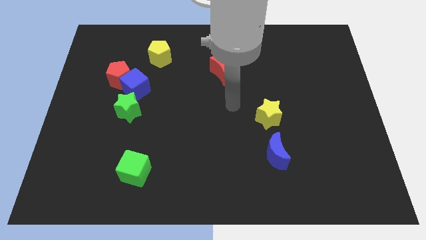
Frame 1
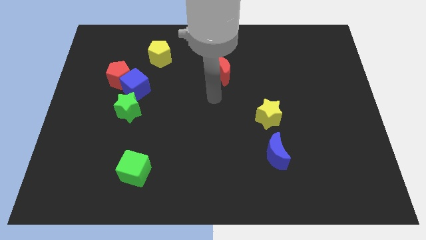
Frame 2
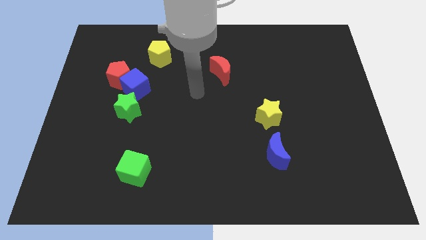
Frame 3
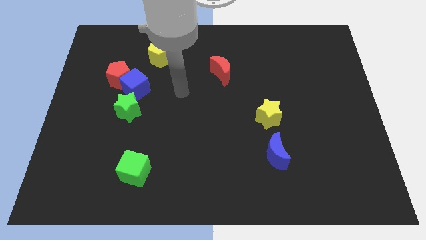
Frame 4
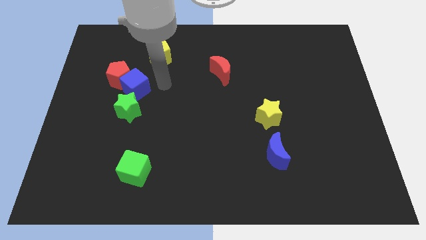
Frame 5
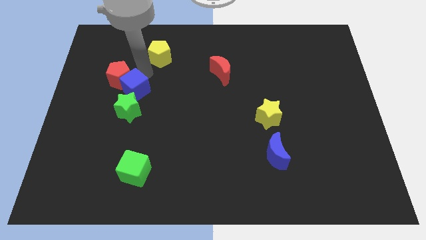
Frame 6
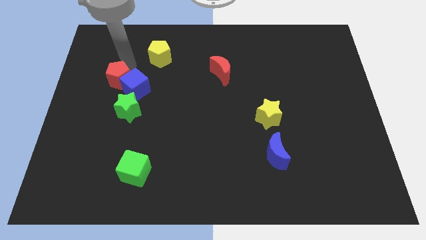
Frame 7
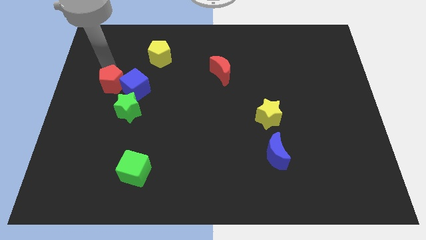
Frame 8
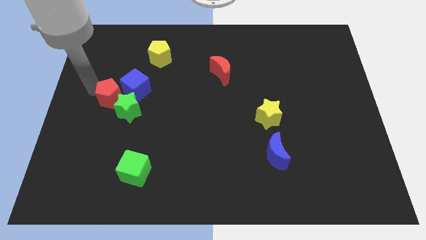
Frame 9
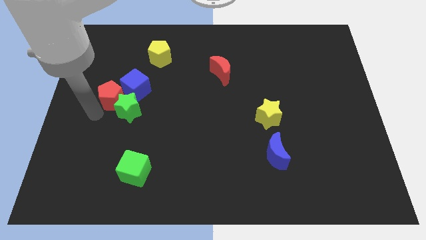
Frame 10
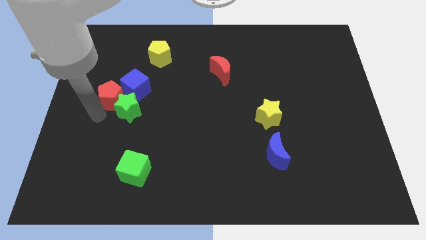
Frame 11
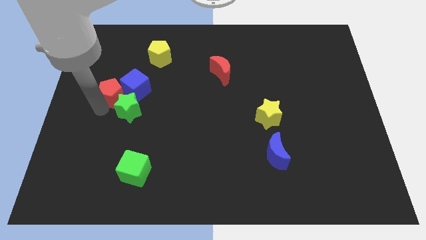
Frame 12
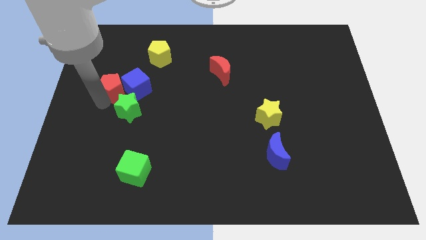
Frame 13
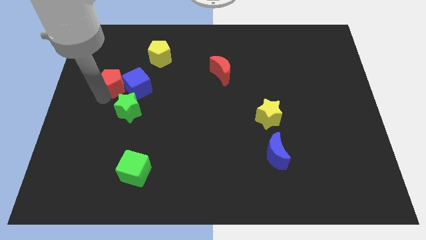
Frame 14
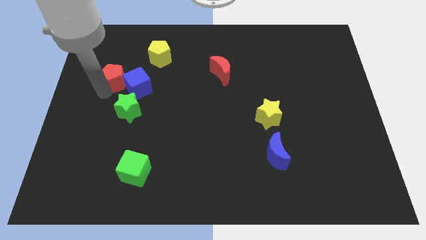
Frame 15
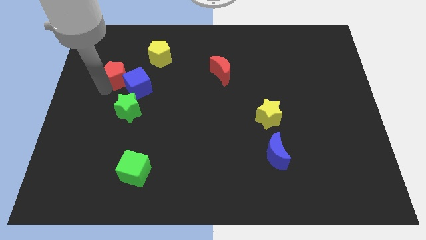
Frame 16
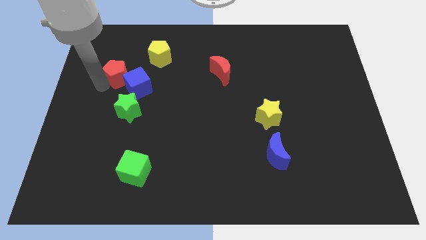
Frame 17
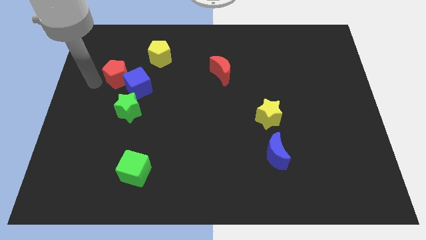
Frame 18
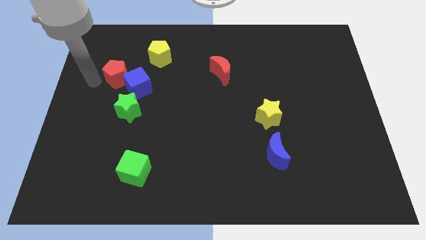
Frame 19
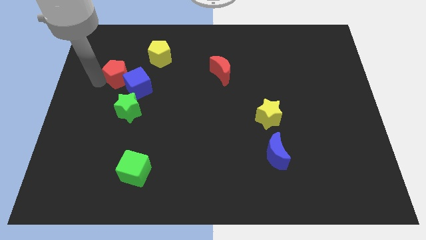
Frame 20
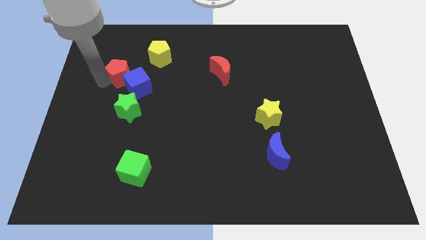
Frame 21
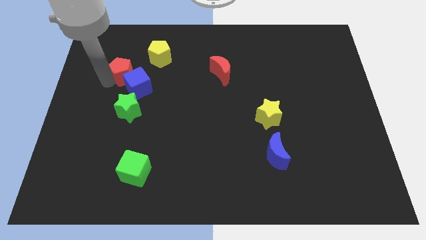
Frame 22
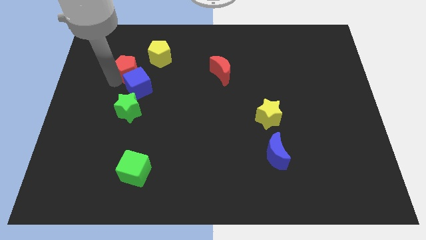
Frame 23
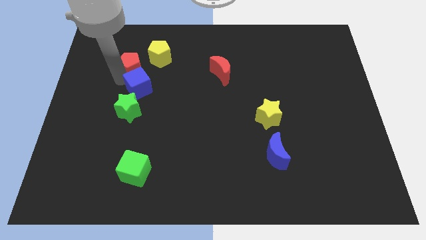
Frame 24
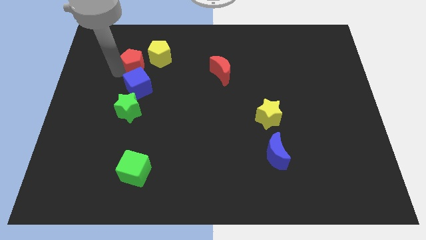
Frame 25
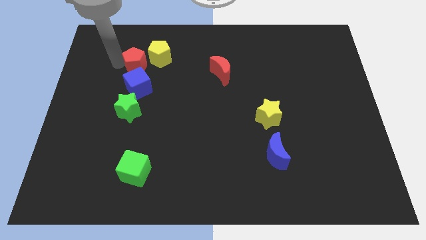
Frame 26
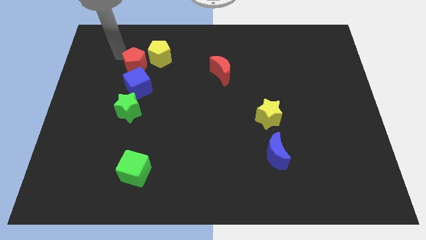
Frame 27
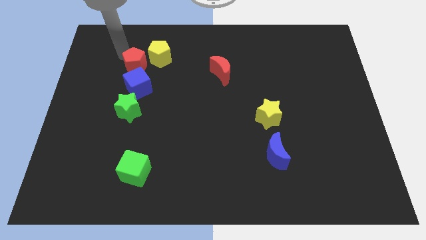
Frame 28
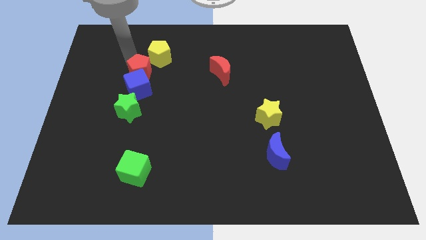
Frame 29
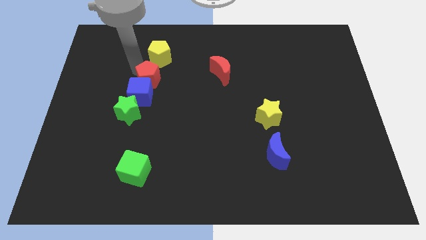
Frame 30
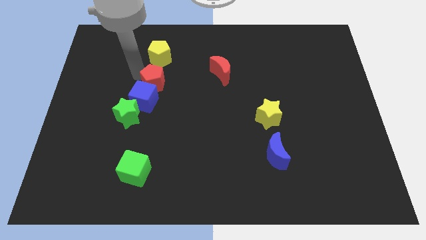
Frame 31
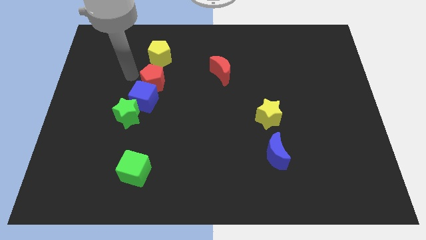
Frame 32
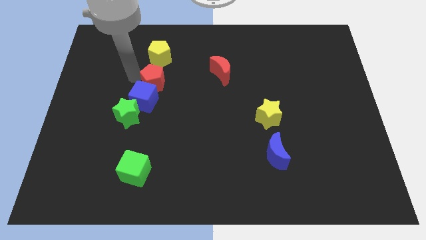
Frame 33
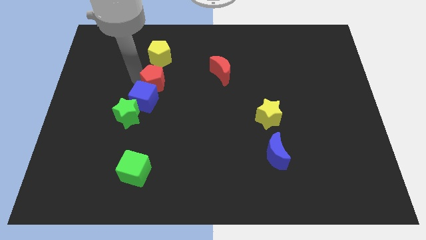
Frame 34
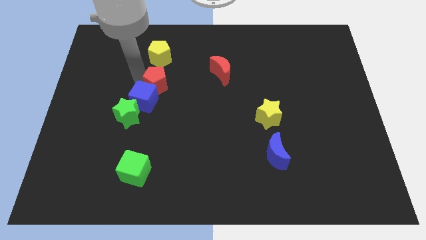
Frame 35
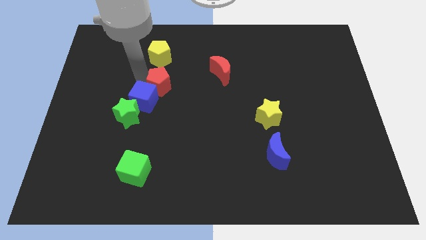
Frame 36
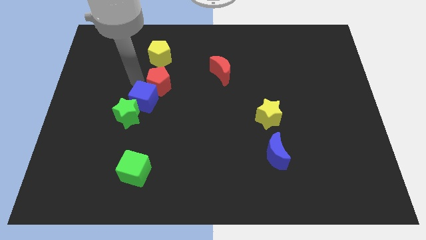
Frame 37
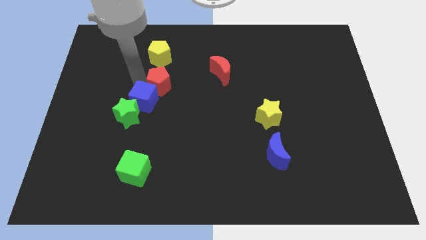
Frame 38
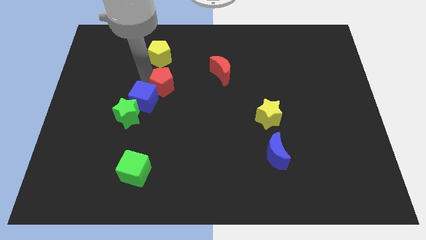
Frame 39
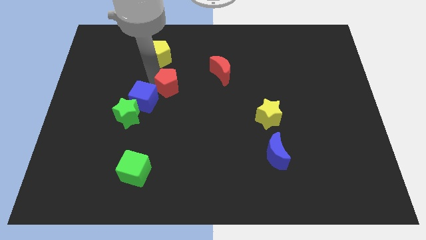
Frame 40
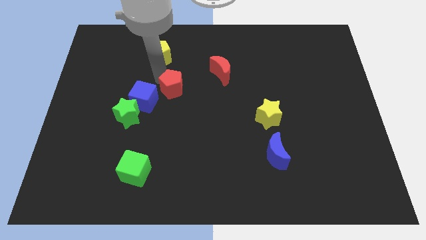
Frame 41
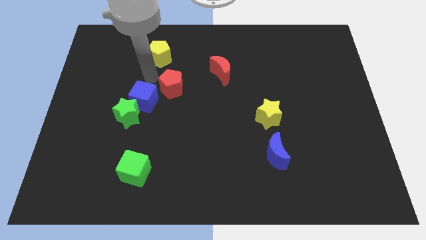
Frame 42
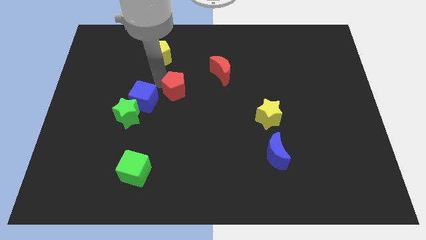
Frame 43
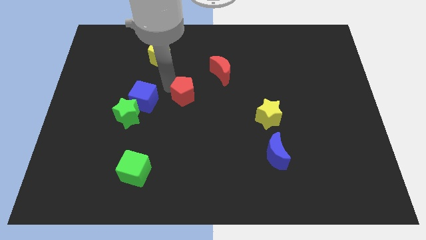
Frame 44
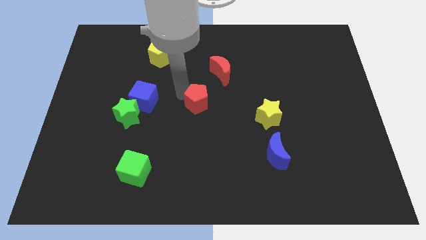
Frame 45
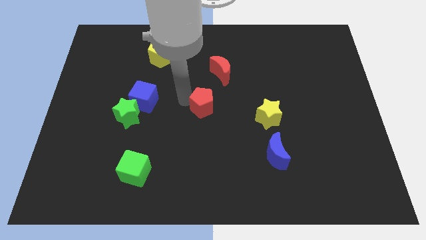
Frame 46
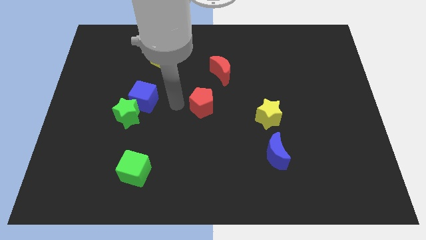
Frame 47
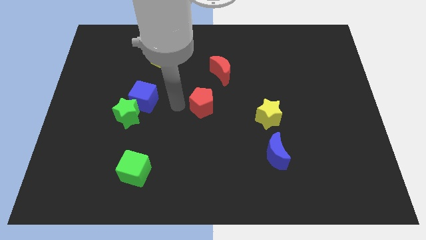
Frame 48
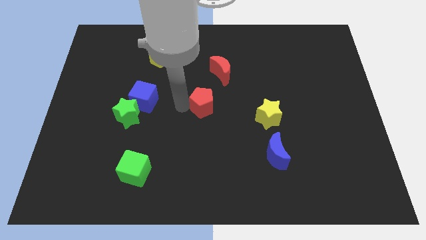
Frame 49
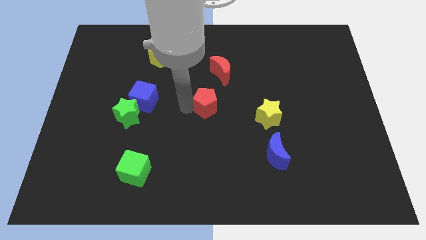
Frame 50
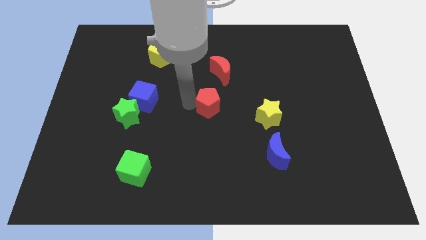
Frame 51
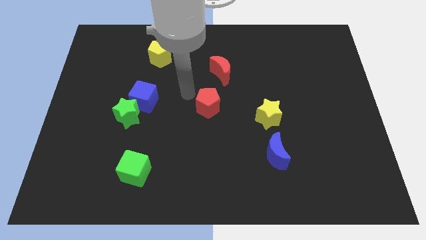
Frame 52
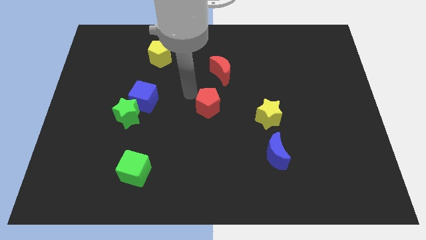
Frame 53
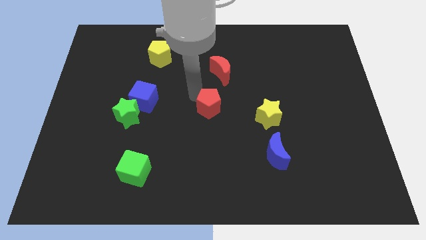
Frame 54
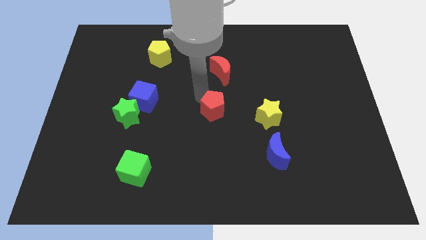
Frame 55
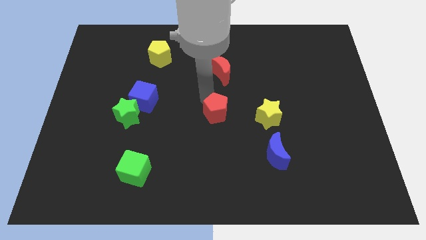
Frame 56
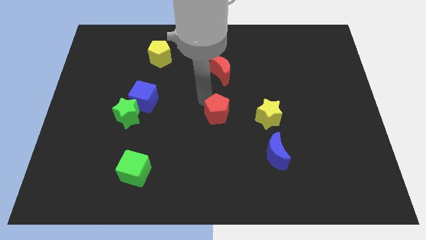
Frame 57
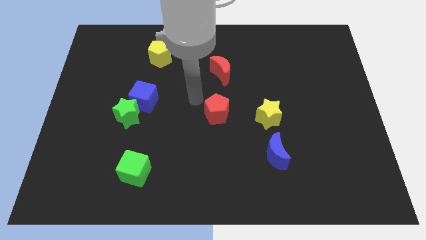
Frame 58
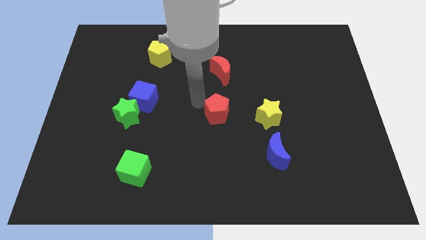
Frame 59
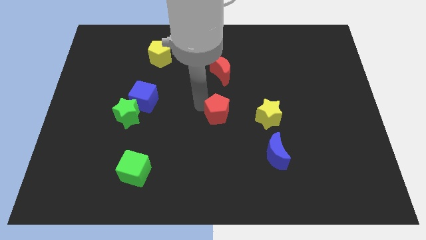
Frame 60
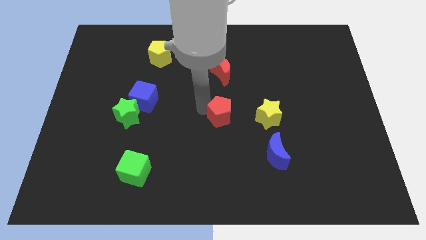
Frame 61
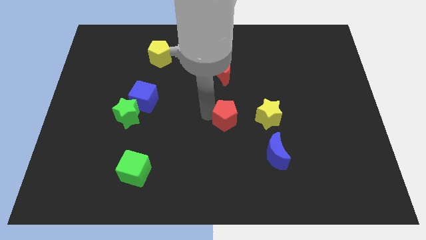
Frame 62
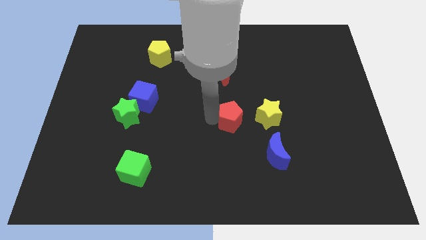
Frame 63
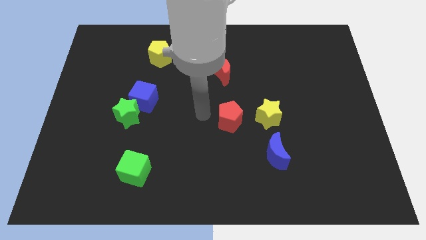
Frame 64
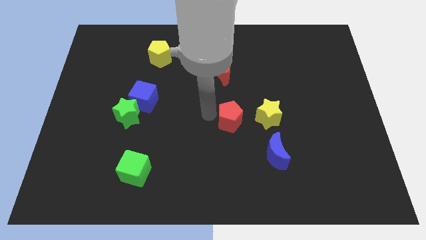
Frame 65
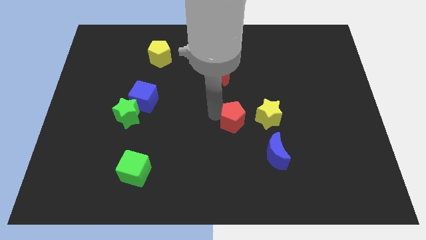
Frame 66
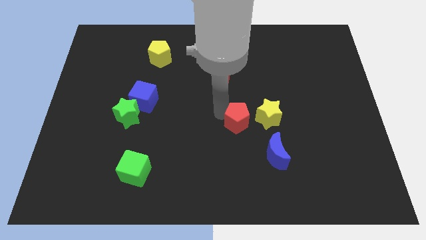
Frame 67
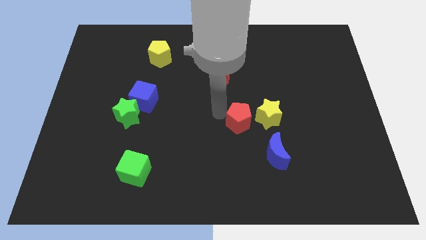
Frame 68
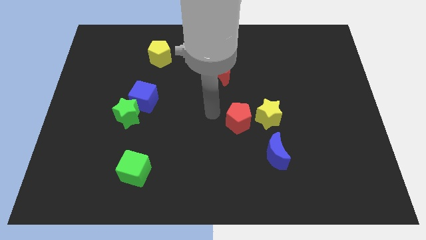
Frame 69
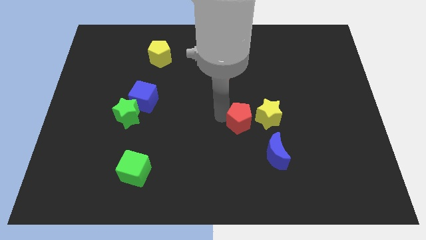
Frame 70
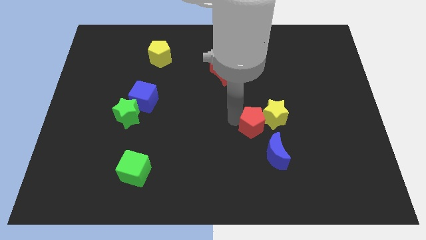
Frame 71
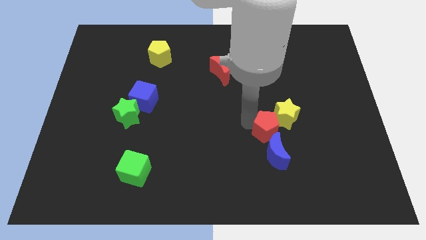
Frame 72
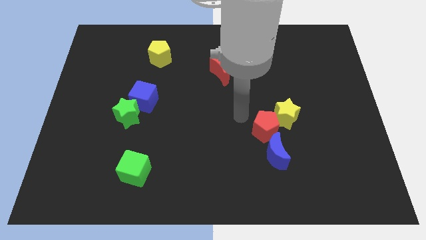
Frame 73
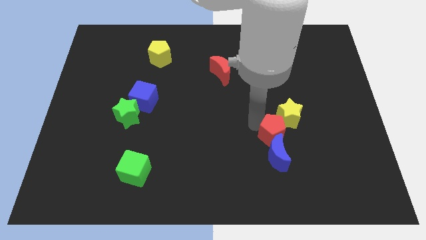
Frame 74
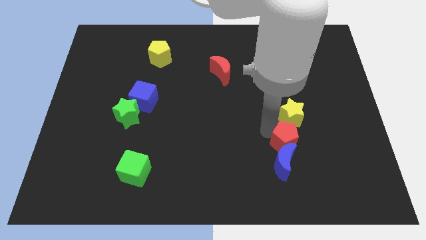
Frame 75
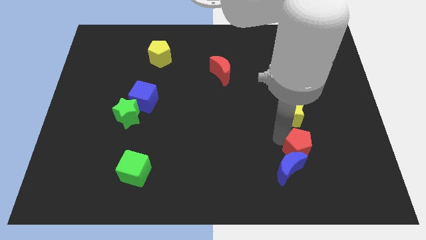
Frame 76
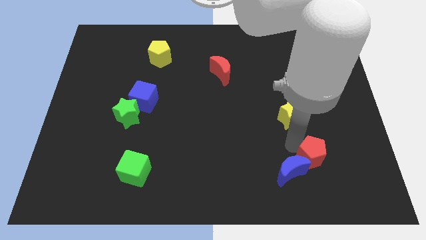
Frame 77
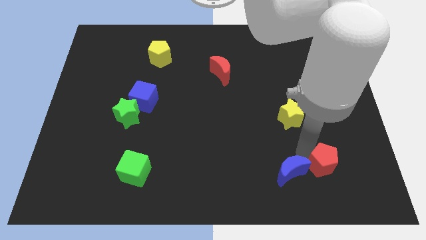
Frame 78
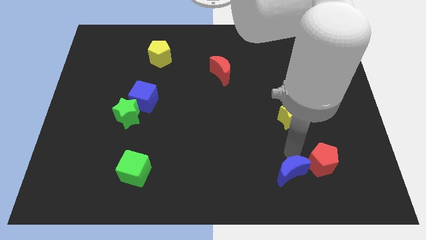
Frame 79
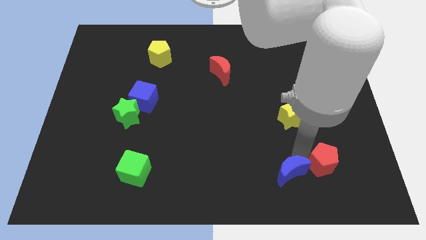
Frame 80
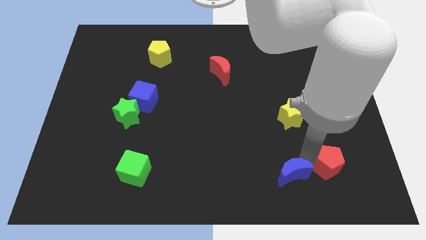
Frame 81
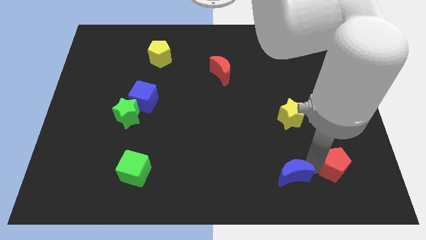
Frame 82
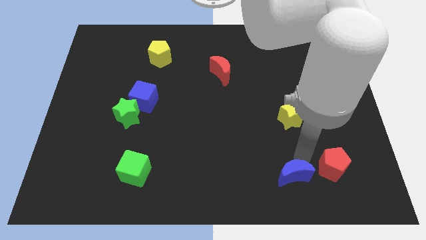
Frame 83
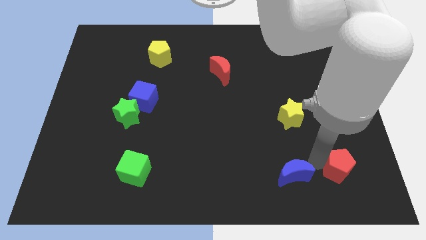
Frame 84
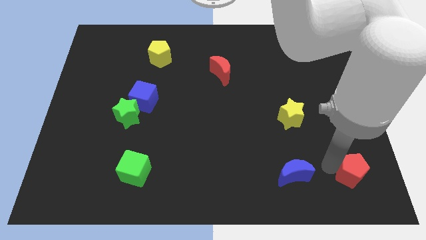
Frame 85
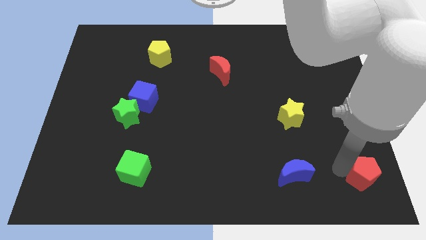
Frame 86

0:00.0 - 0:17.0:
slide the red pentagon to the bottom right of the board
